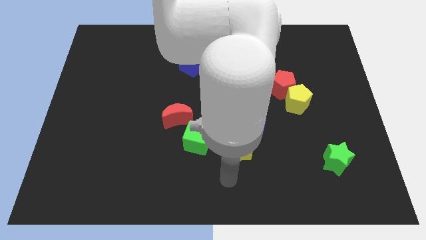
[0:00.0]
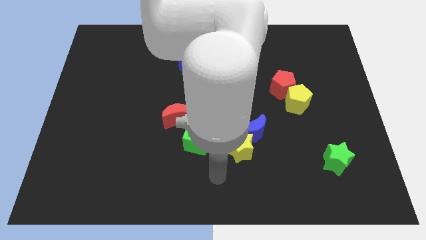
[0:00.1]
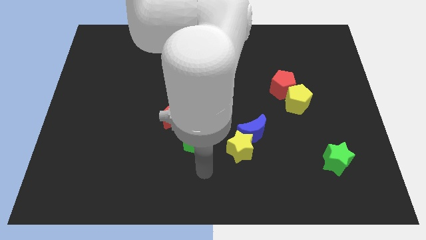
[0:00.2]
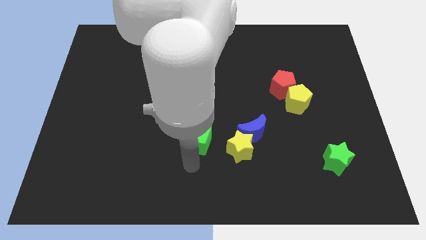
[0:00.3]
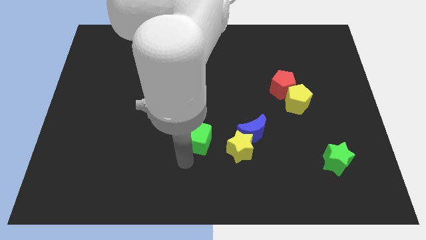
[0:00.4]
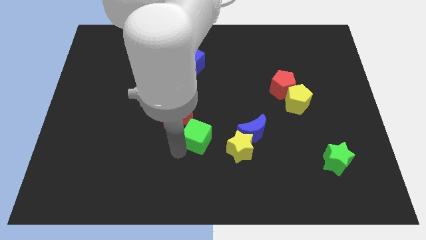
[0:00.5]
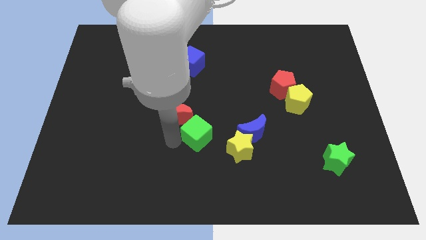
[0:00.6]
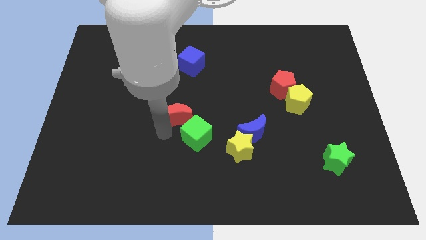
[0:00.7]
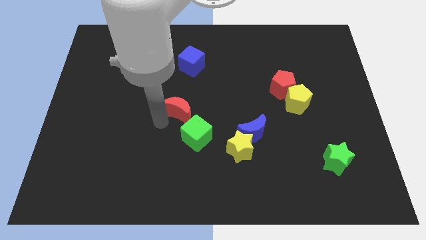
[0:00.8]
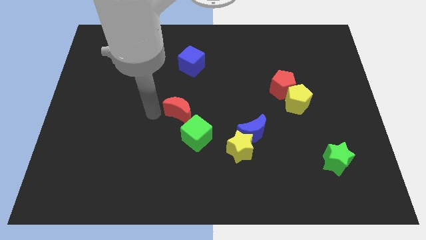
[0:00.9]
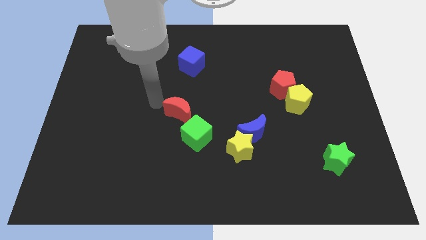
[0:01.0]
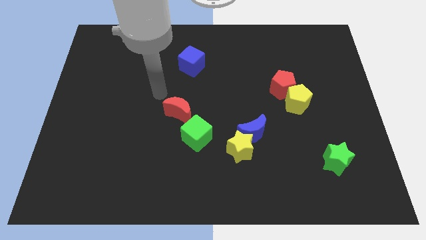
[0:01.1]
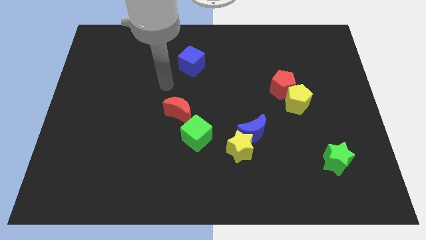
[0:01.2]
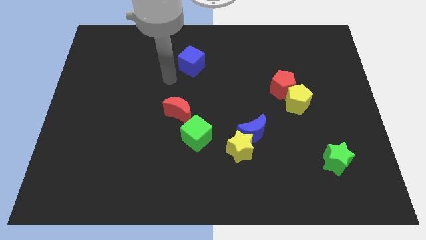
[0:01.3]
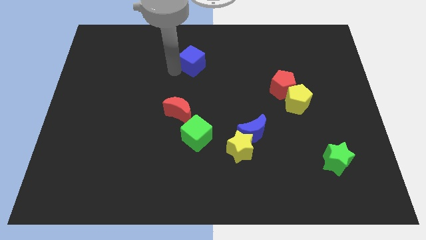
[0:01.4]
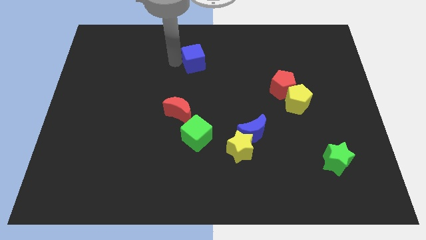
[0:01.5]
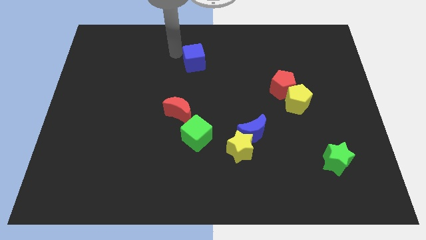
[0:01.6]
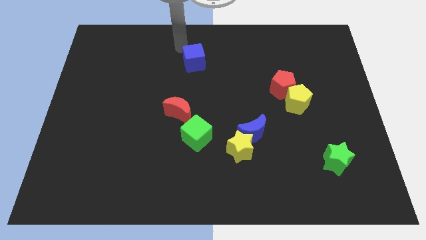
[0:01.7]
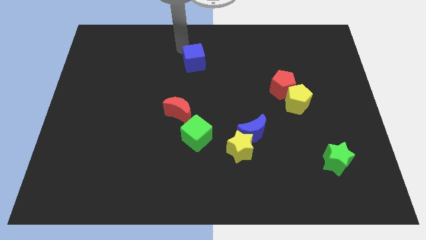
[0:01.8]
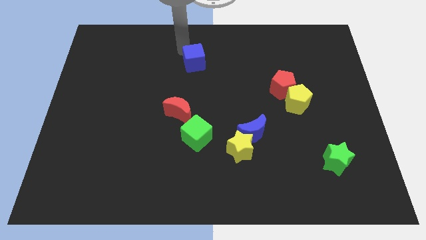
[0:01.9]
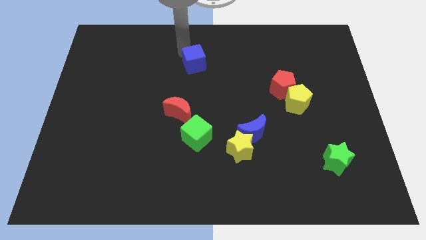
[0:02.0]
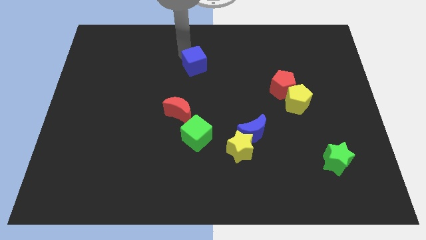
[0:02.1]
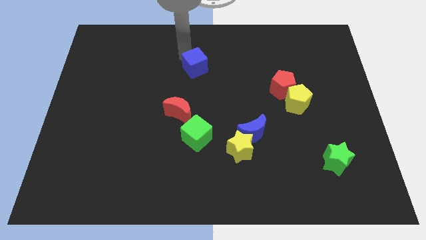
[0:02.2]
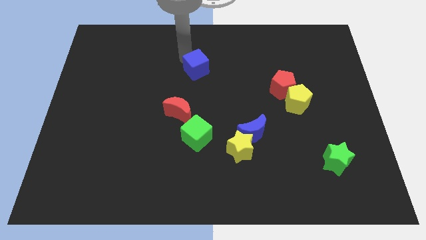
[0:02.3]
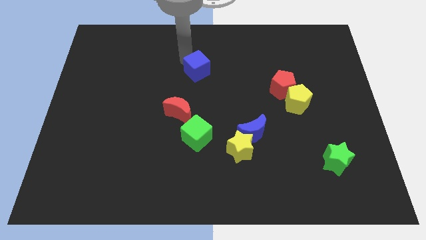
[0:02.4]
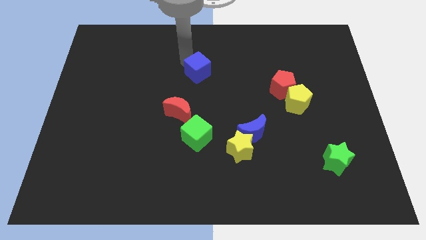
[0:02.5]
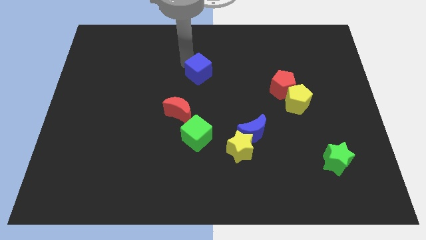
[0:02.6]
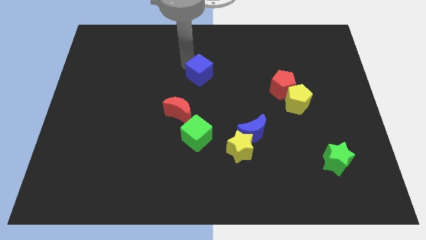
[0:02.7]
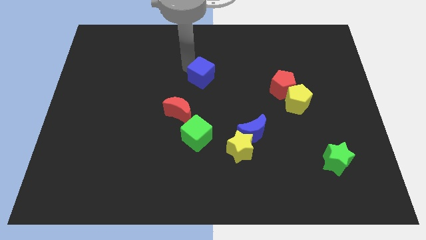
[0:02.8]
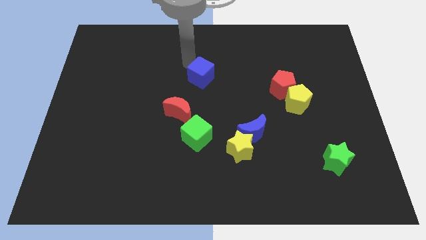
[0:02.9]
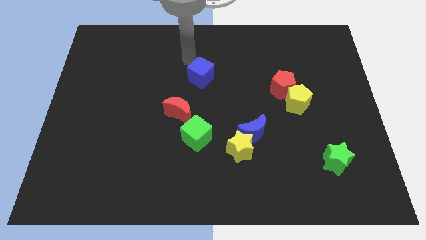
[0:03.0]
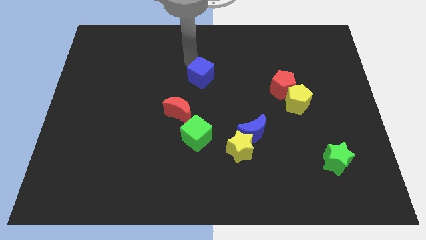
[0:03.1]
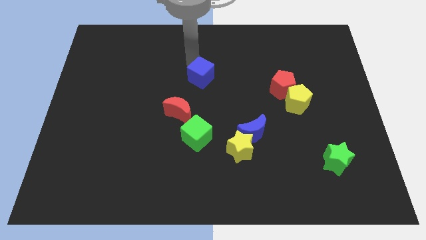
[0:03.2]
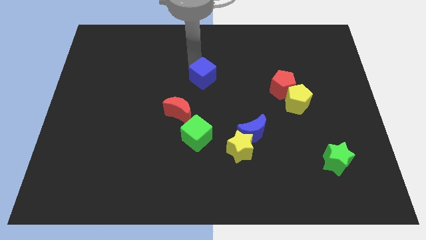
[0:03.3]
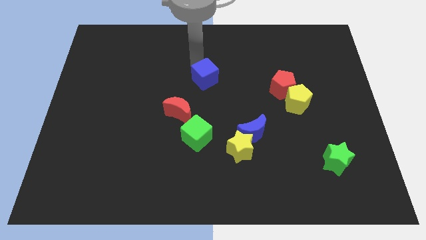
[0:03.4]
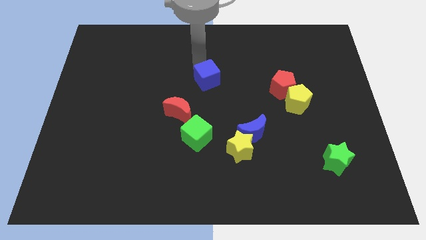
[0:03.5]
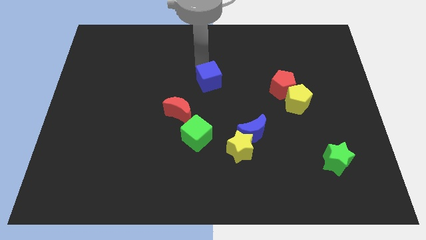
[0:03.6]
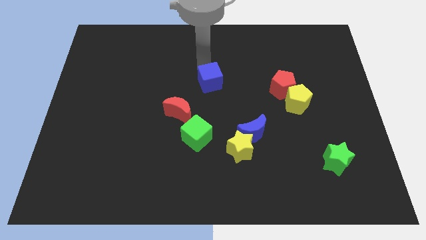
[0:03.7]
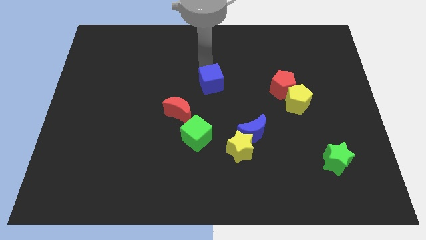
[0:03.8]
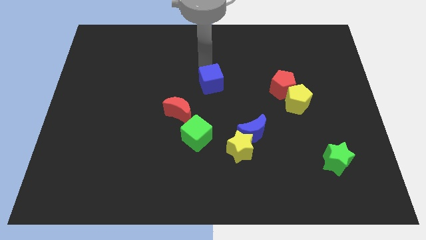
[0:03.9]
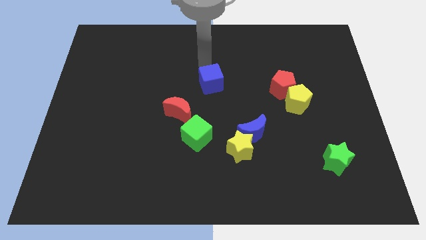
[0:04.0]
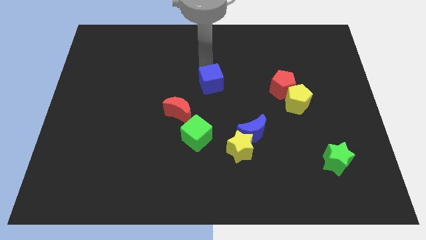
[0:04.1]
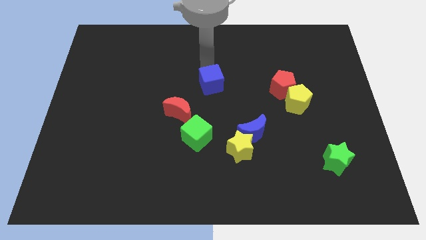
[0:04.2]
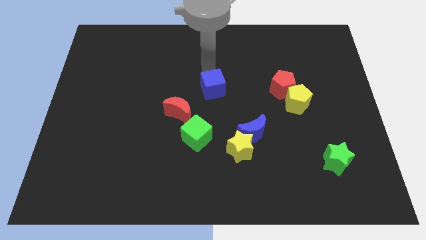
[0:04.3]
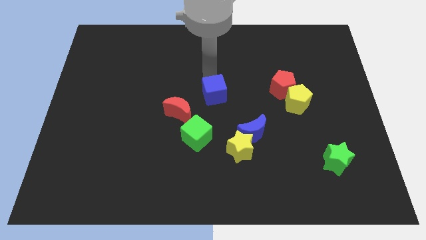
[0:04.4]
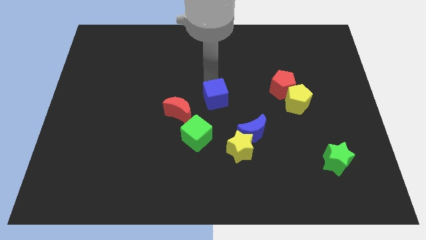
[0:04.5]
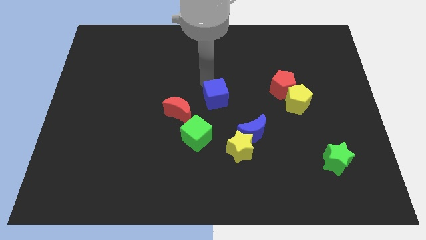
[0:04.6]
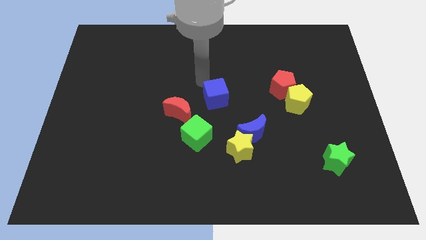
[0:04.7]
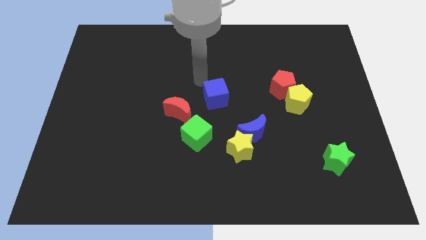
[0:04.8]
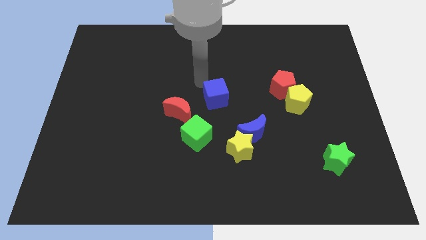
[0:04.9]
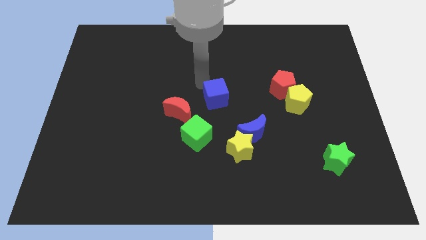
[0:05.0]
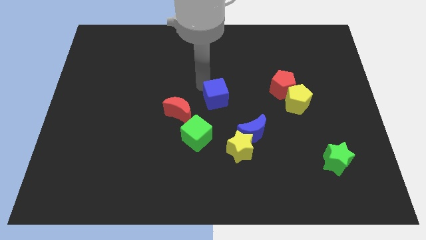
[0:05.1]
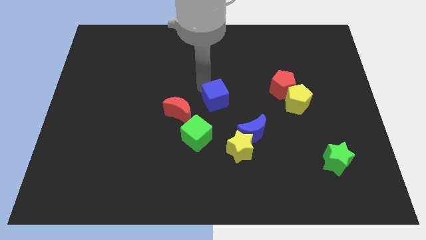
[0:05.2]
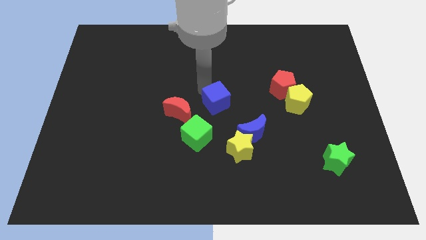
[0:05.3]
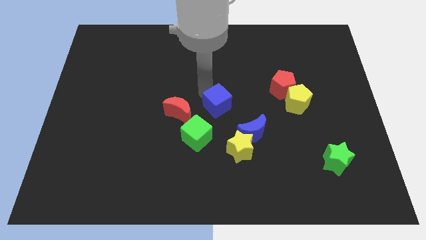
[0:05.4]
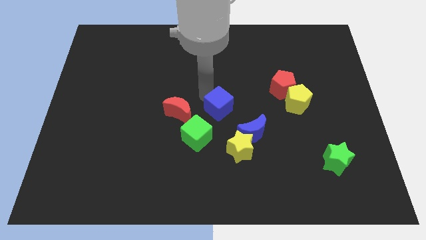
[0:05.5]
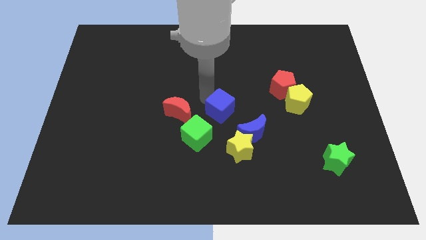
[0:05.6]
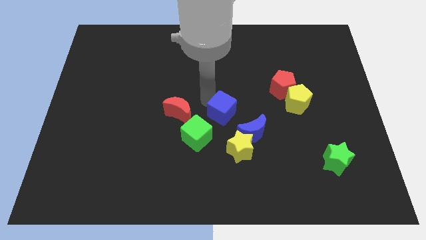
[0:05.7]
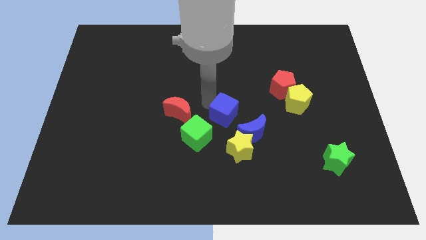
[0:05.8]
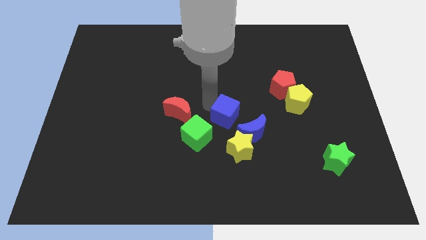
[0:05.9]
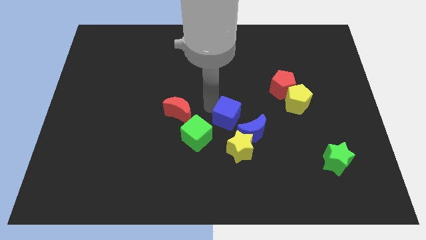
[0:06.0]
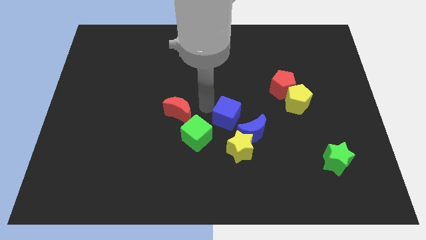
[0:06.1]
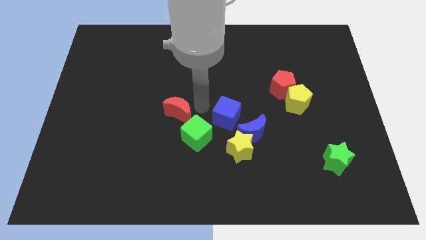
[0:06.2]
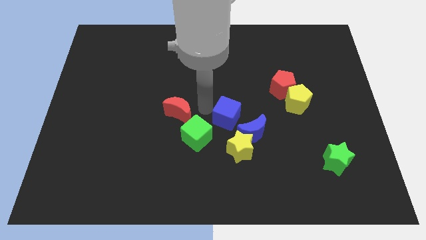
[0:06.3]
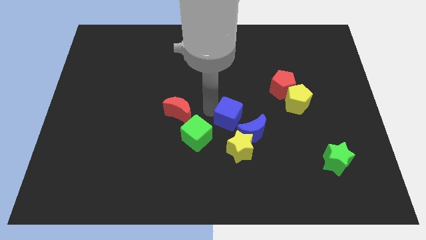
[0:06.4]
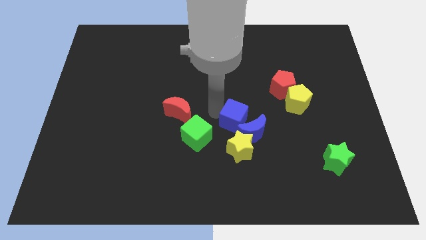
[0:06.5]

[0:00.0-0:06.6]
slide the blue cube next to the blue moon
